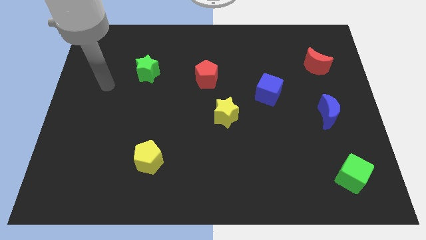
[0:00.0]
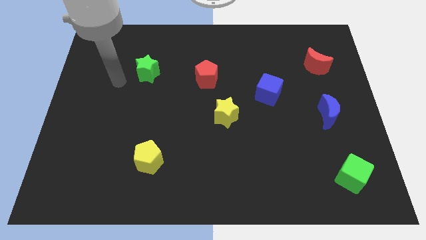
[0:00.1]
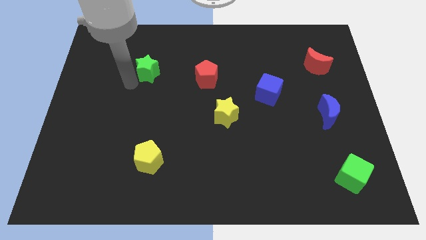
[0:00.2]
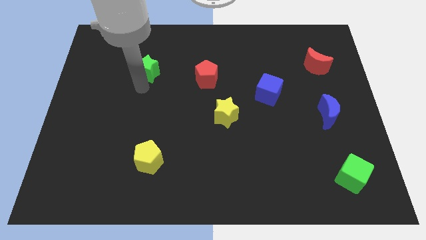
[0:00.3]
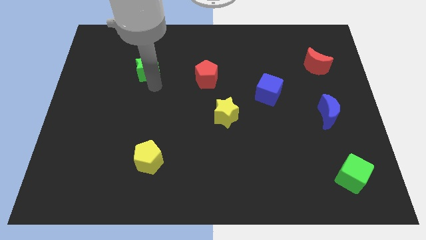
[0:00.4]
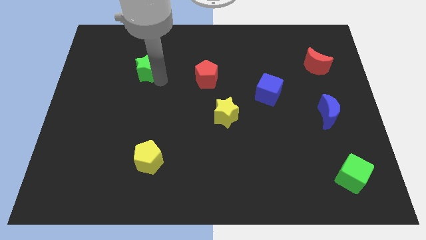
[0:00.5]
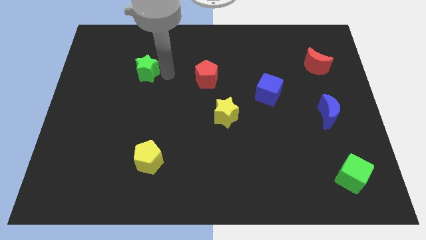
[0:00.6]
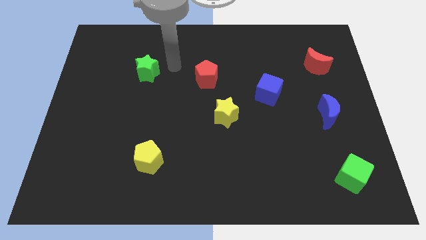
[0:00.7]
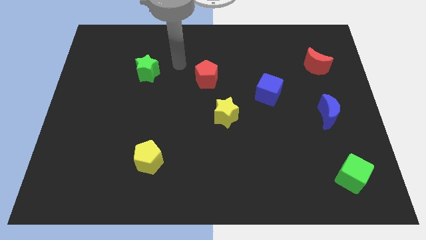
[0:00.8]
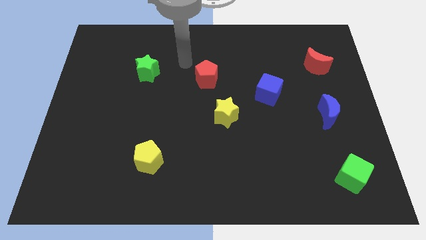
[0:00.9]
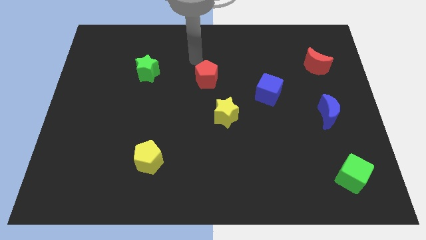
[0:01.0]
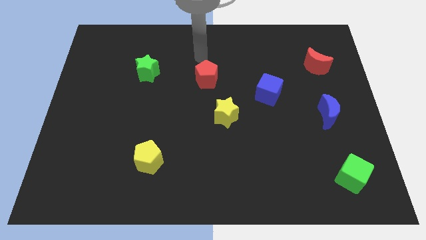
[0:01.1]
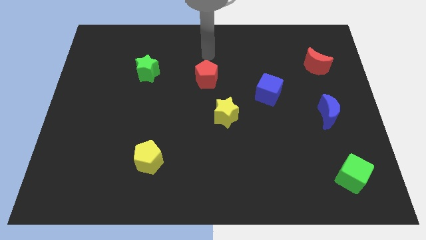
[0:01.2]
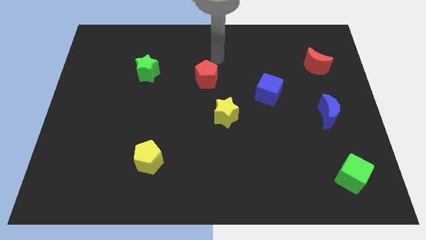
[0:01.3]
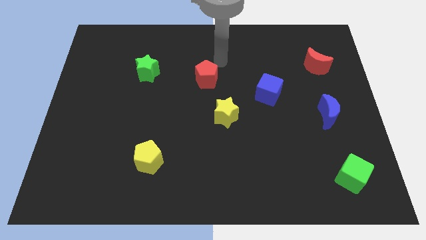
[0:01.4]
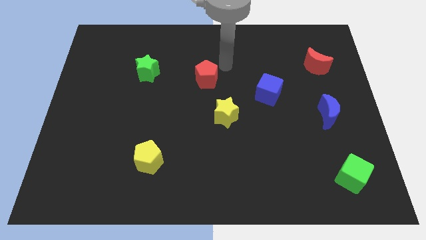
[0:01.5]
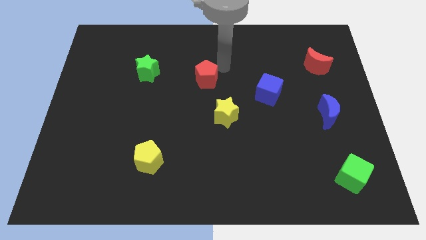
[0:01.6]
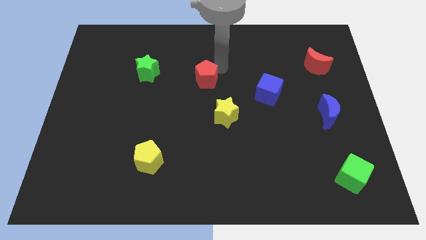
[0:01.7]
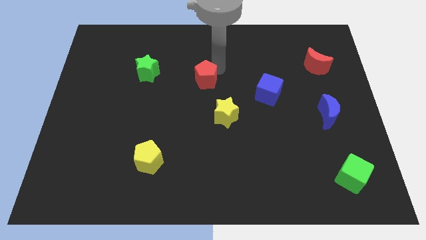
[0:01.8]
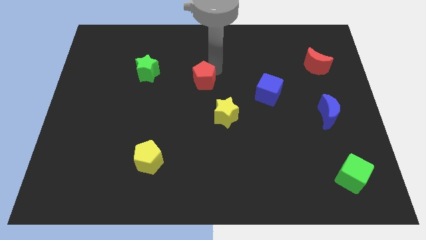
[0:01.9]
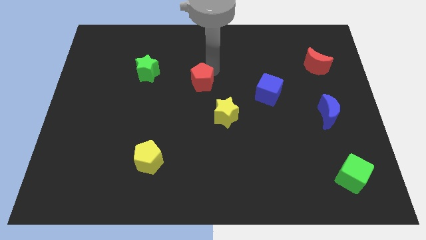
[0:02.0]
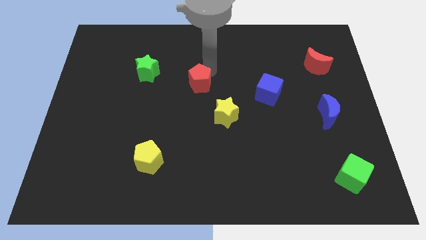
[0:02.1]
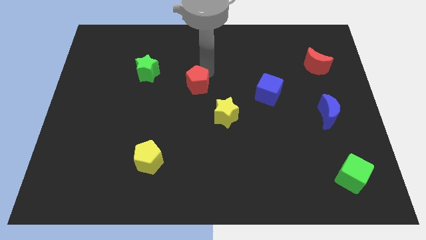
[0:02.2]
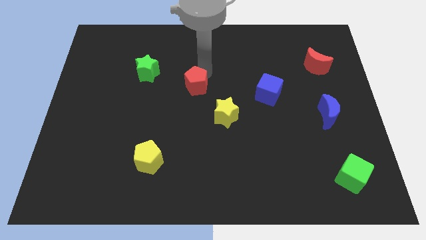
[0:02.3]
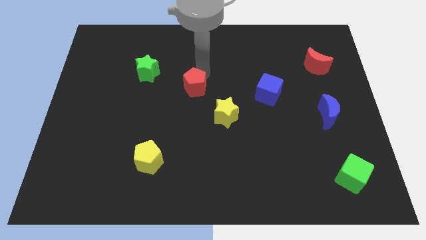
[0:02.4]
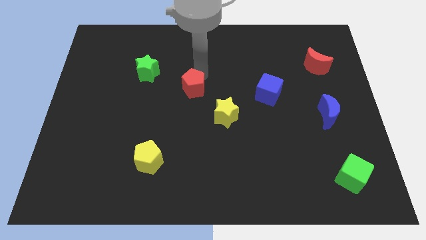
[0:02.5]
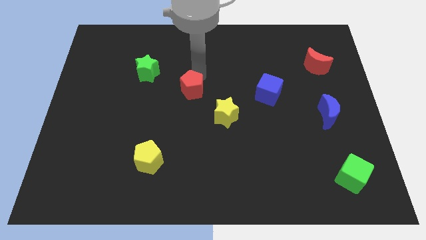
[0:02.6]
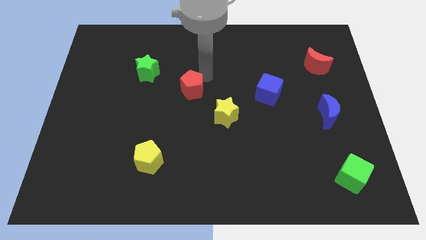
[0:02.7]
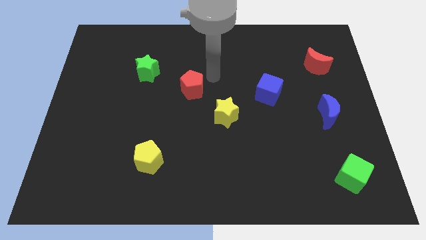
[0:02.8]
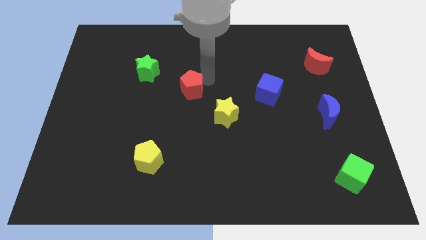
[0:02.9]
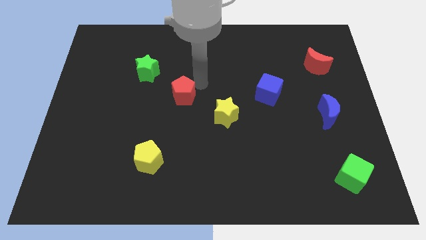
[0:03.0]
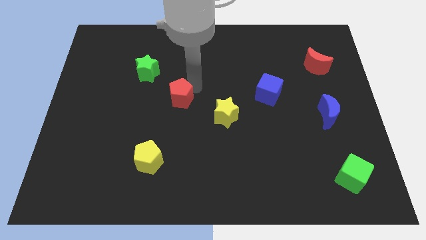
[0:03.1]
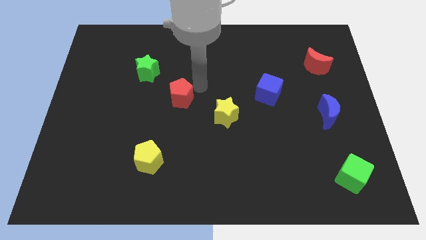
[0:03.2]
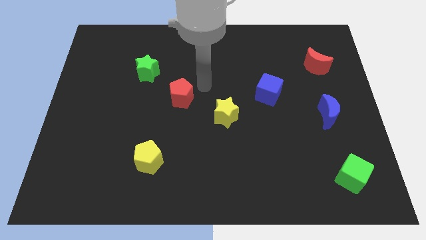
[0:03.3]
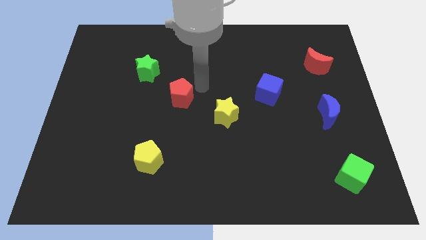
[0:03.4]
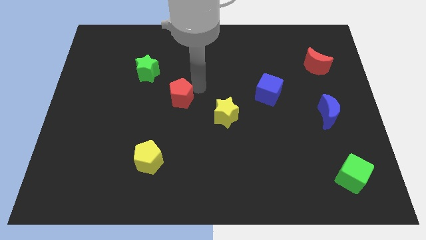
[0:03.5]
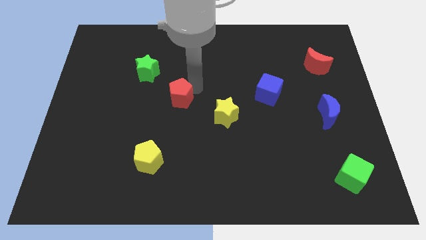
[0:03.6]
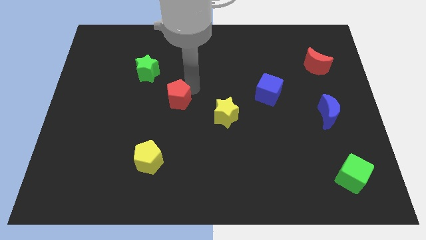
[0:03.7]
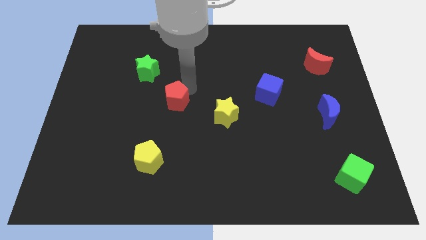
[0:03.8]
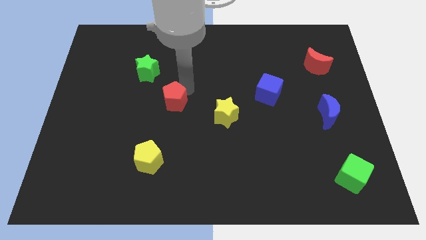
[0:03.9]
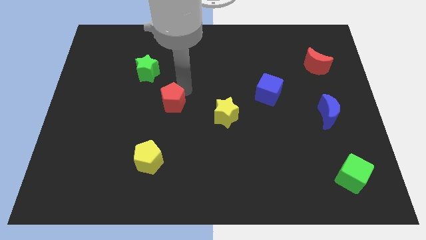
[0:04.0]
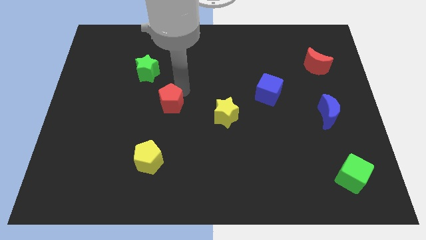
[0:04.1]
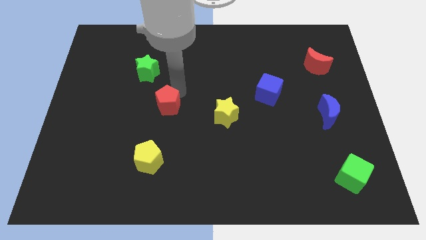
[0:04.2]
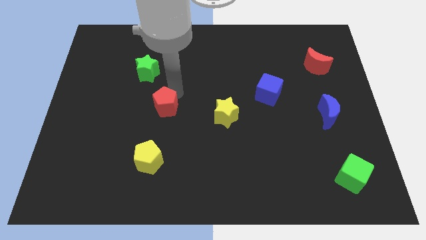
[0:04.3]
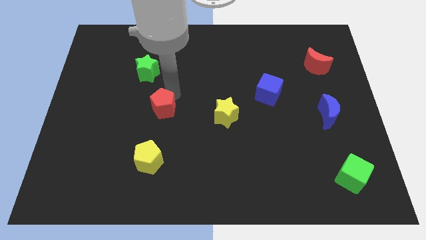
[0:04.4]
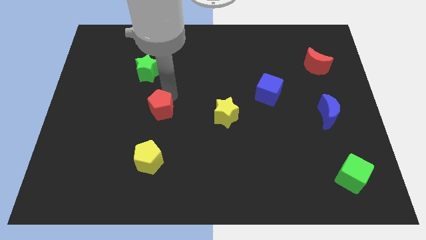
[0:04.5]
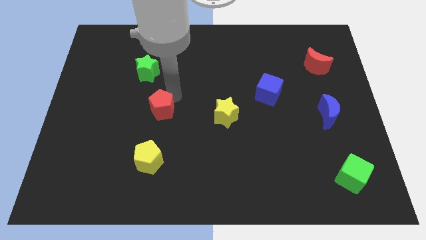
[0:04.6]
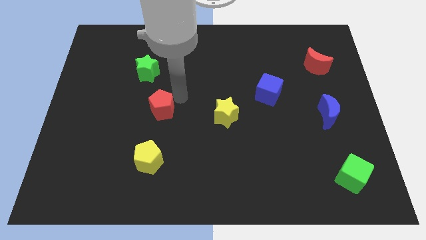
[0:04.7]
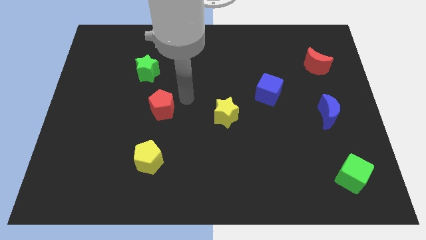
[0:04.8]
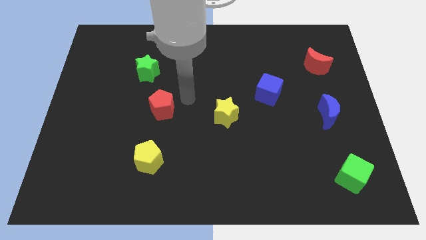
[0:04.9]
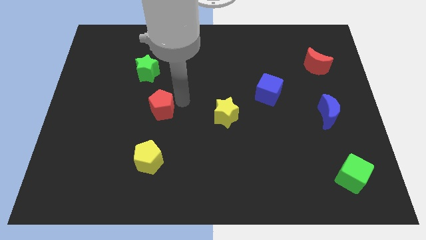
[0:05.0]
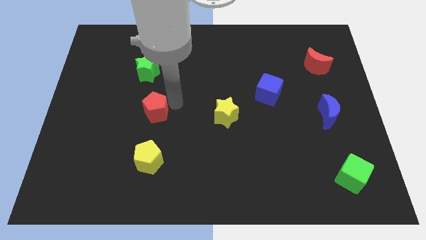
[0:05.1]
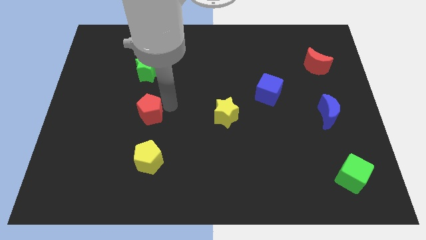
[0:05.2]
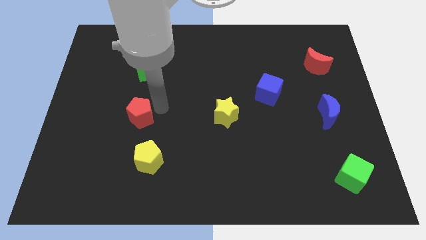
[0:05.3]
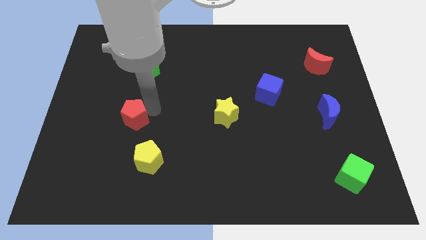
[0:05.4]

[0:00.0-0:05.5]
push the red pentagon down and to the left diagonally

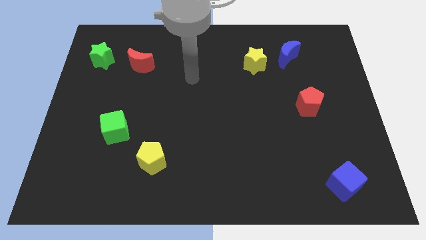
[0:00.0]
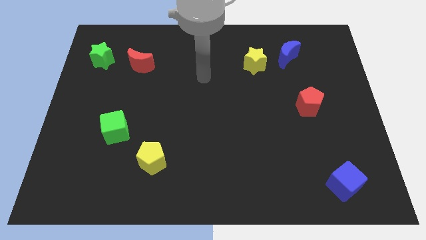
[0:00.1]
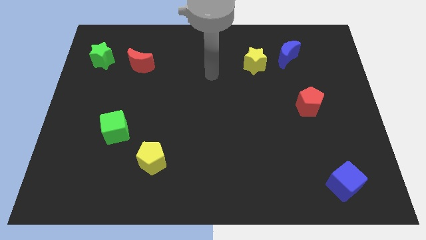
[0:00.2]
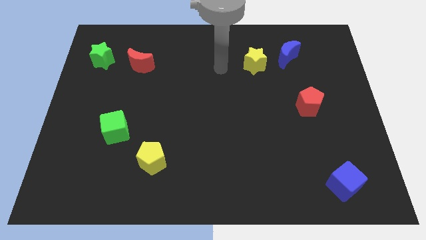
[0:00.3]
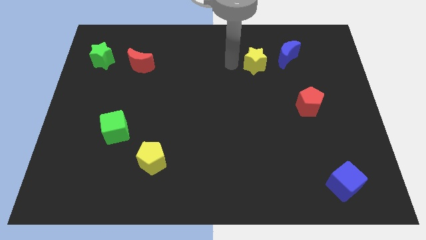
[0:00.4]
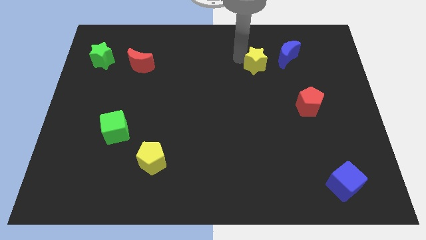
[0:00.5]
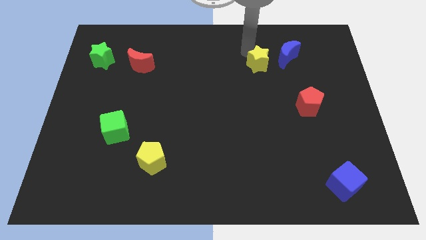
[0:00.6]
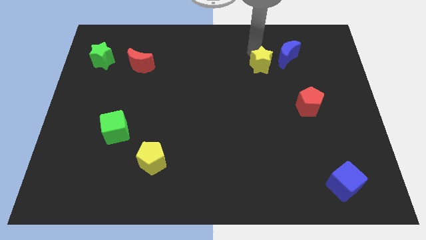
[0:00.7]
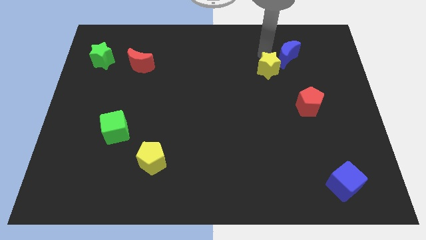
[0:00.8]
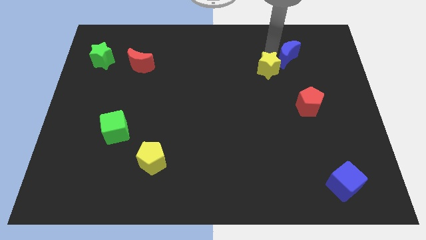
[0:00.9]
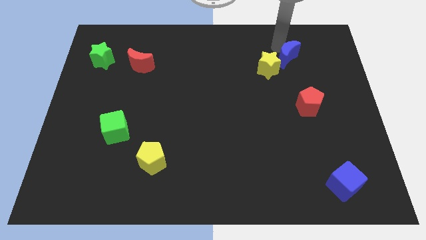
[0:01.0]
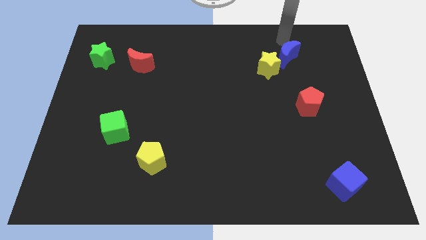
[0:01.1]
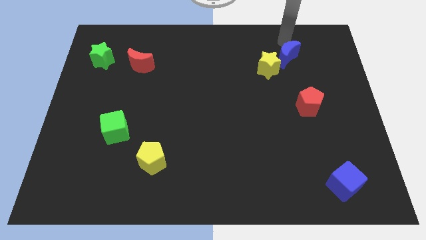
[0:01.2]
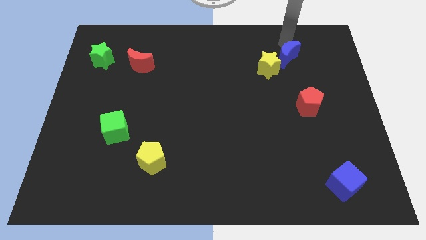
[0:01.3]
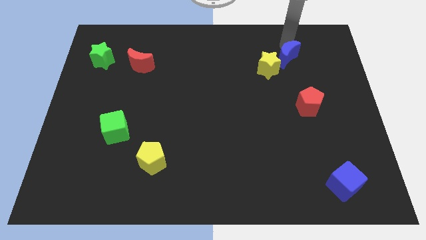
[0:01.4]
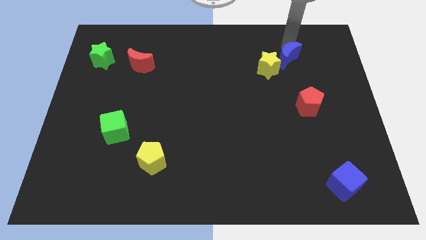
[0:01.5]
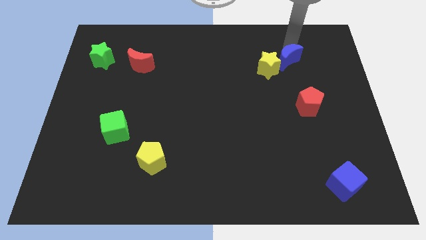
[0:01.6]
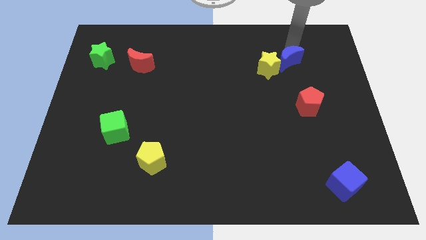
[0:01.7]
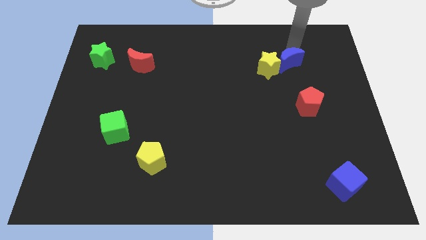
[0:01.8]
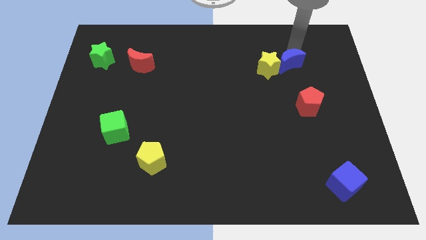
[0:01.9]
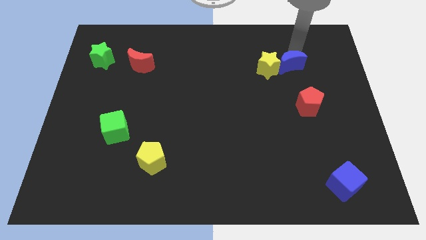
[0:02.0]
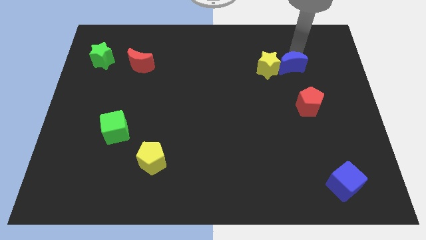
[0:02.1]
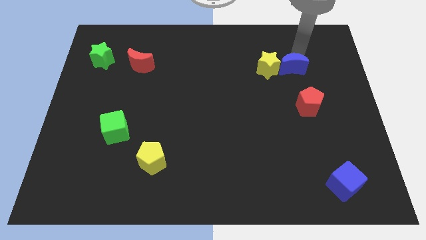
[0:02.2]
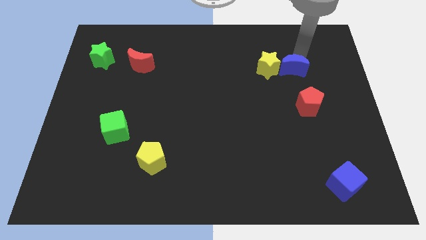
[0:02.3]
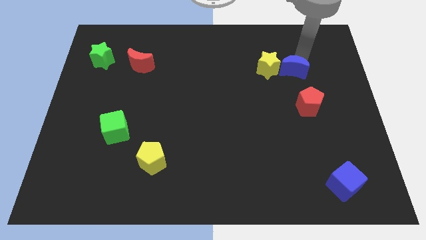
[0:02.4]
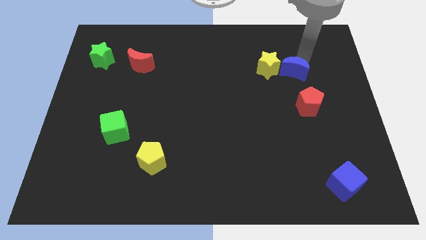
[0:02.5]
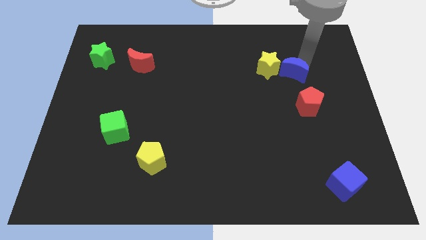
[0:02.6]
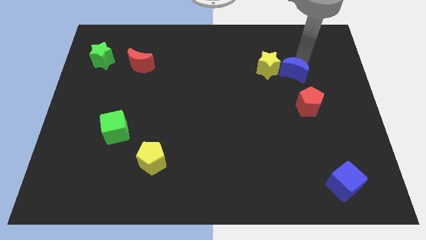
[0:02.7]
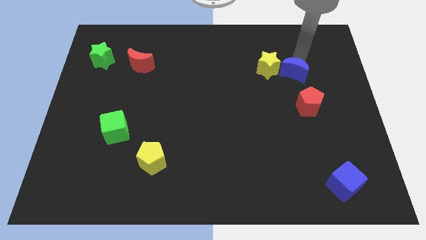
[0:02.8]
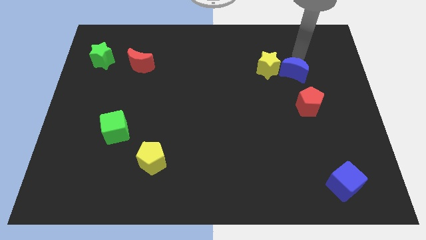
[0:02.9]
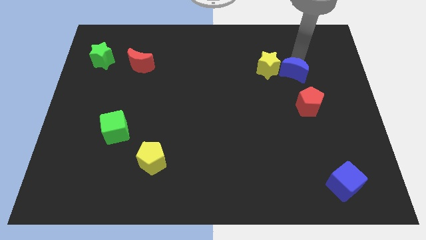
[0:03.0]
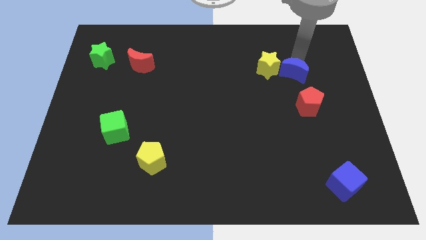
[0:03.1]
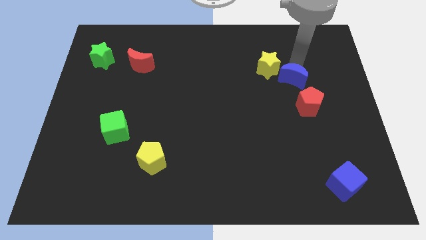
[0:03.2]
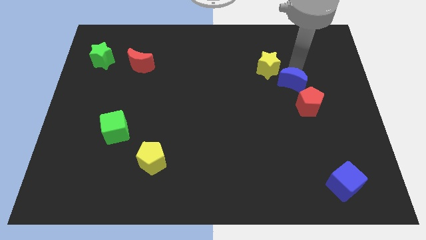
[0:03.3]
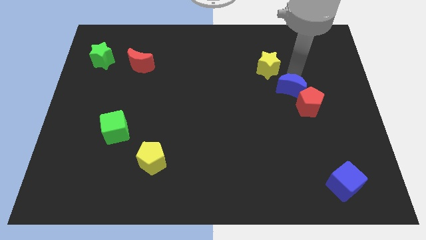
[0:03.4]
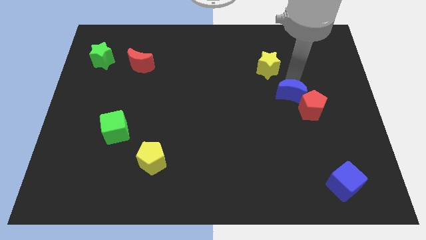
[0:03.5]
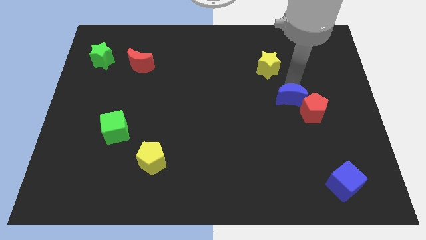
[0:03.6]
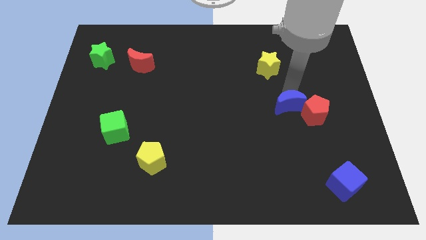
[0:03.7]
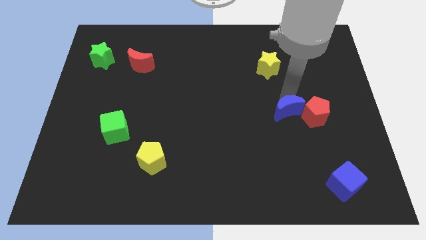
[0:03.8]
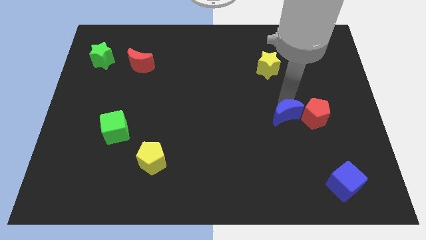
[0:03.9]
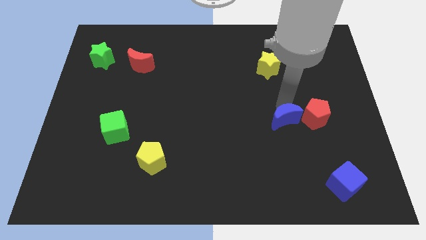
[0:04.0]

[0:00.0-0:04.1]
slide the blue moon downwards
